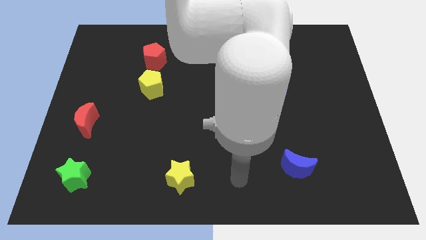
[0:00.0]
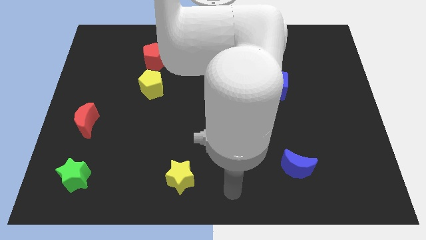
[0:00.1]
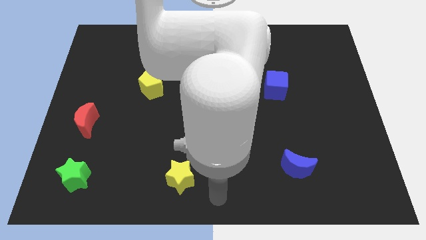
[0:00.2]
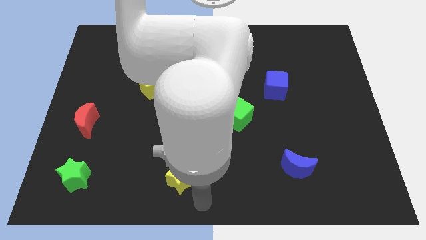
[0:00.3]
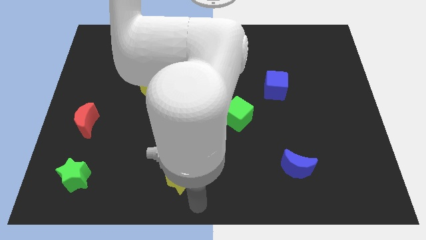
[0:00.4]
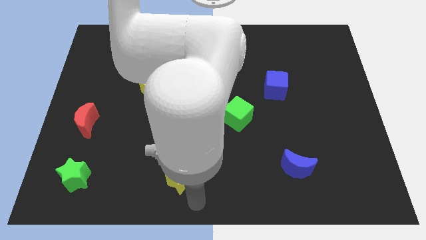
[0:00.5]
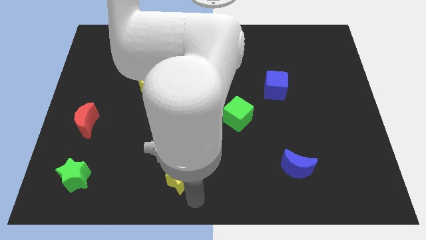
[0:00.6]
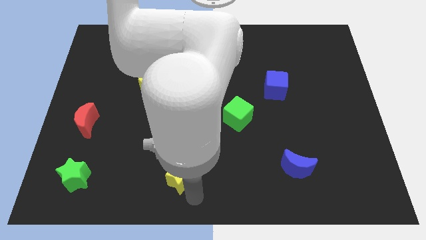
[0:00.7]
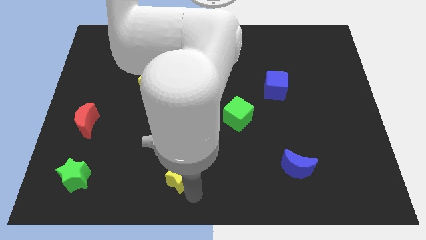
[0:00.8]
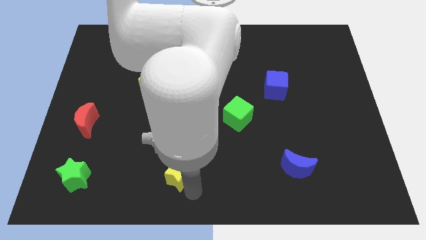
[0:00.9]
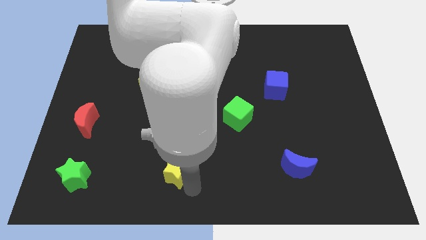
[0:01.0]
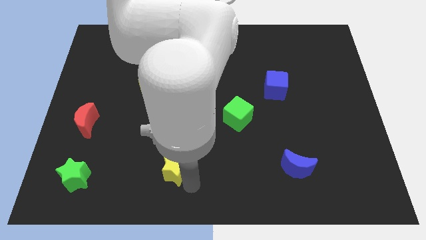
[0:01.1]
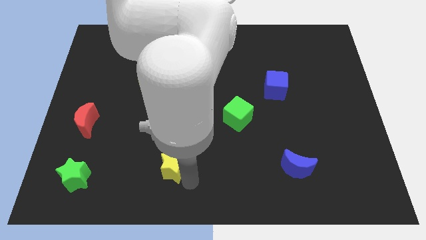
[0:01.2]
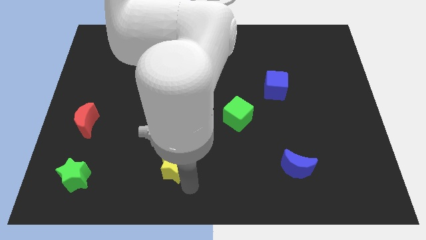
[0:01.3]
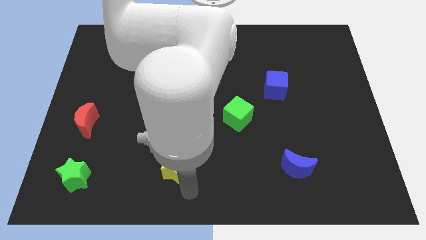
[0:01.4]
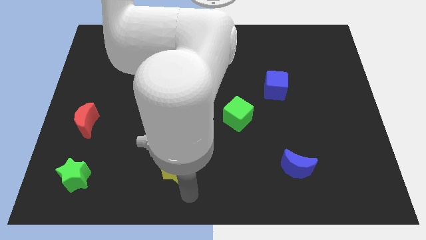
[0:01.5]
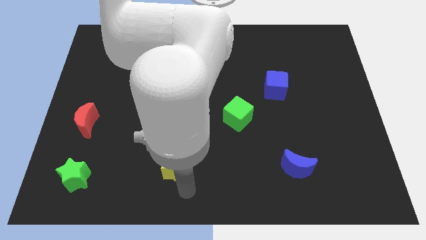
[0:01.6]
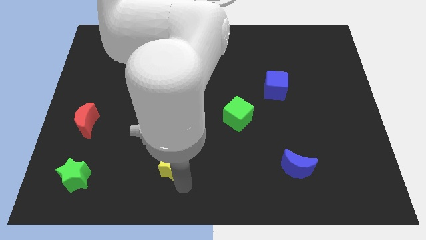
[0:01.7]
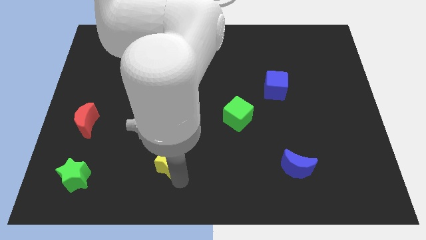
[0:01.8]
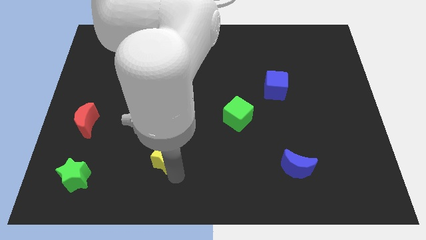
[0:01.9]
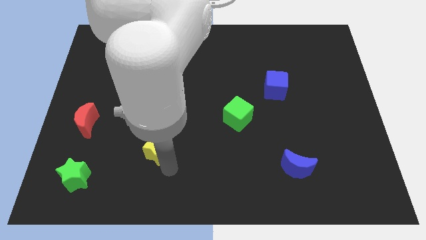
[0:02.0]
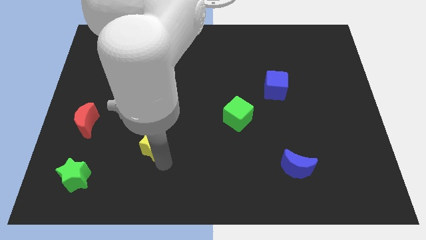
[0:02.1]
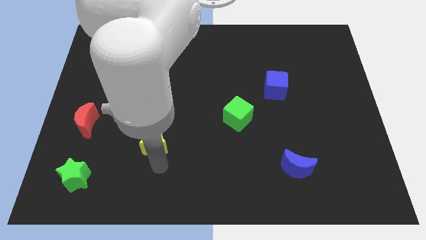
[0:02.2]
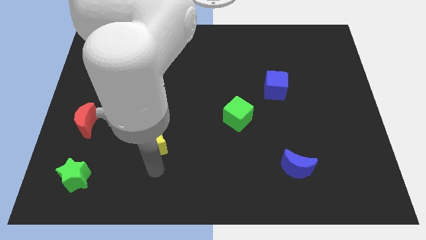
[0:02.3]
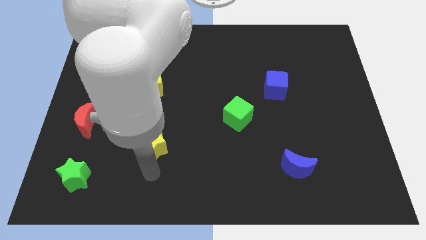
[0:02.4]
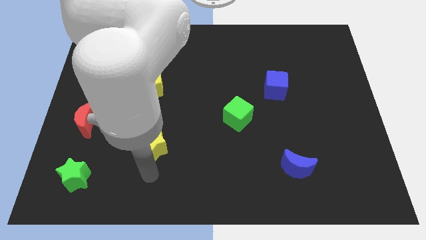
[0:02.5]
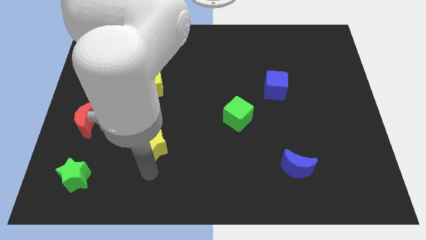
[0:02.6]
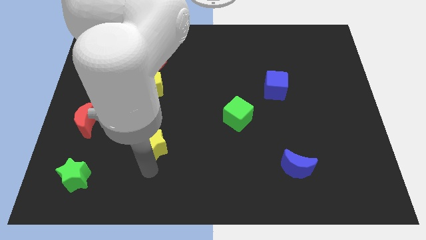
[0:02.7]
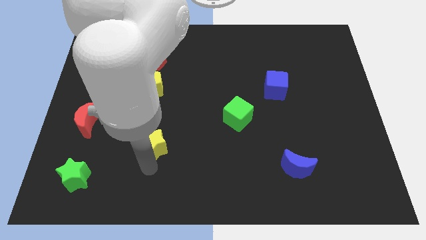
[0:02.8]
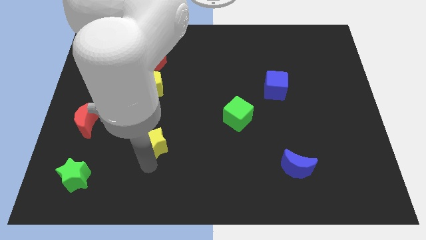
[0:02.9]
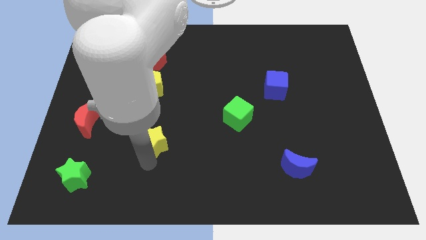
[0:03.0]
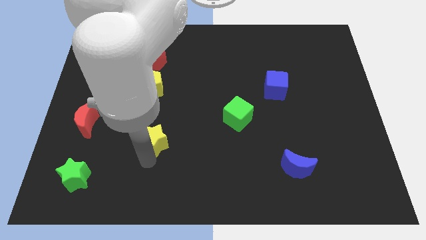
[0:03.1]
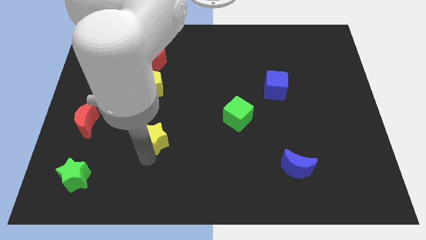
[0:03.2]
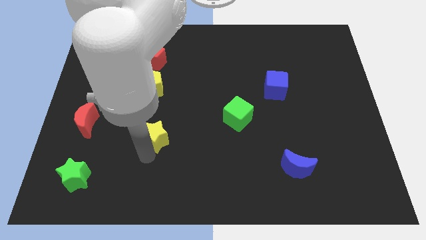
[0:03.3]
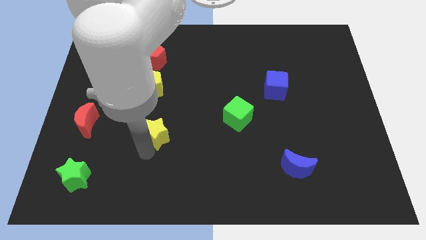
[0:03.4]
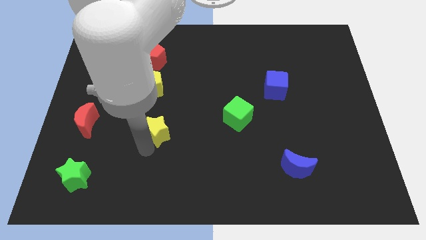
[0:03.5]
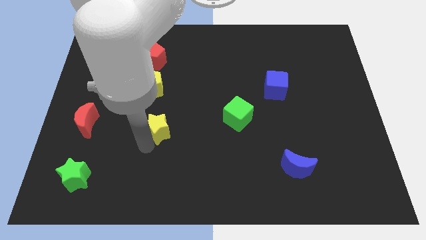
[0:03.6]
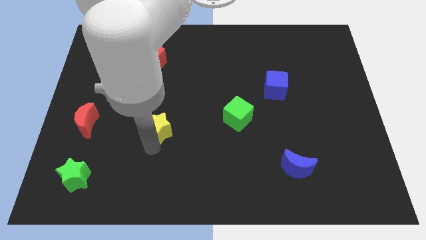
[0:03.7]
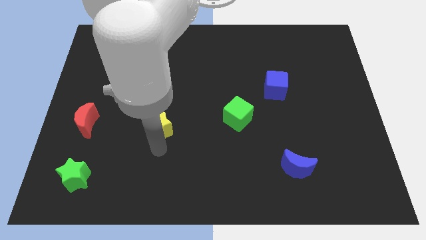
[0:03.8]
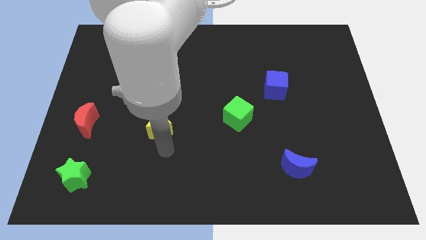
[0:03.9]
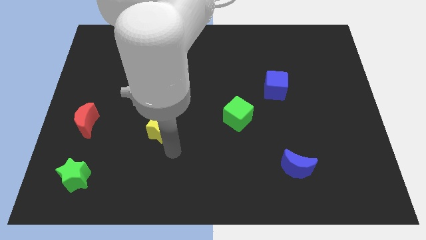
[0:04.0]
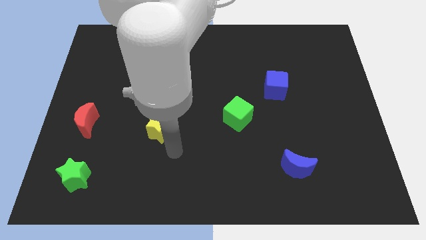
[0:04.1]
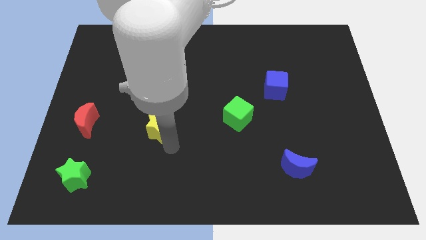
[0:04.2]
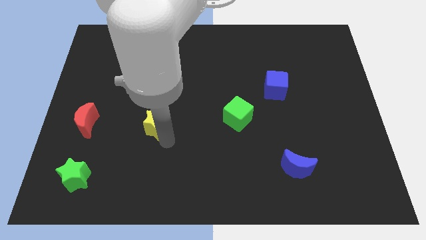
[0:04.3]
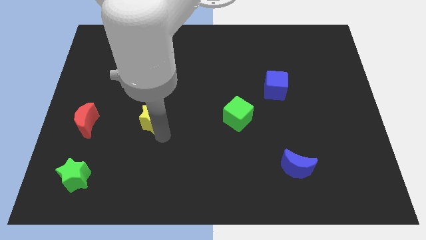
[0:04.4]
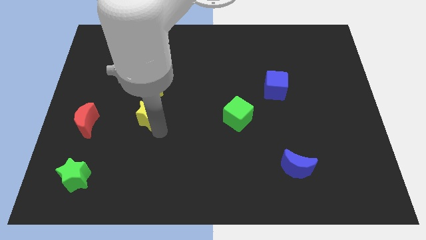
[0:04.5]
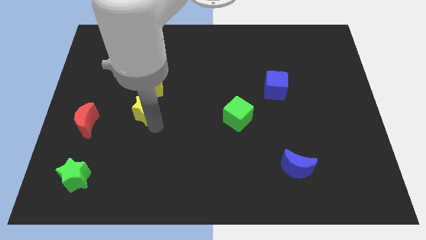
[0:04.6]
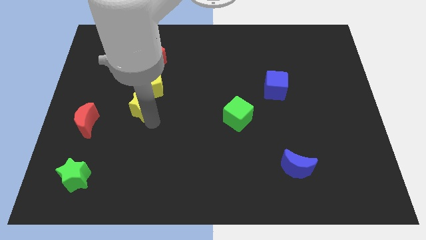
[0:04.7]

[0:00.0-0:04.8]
slide the yellow star to the bottom side of the red pentagon

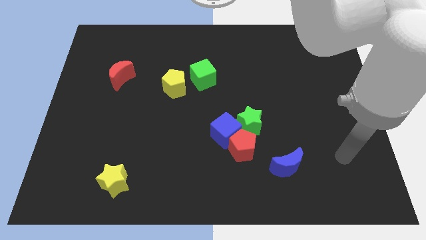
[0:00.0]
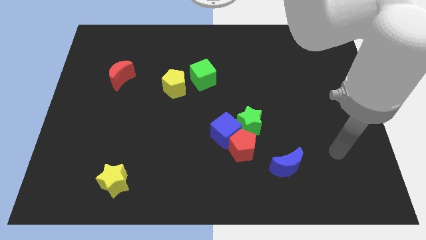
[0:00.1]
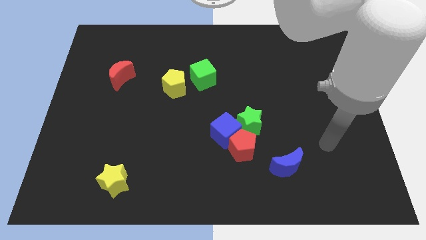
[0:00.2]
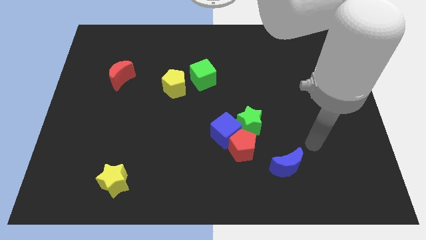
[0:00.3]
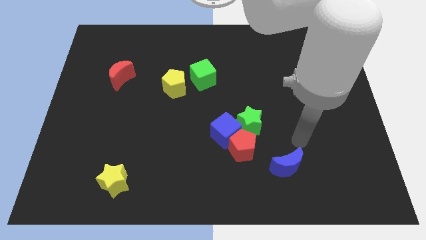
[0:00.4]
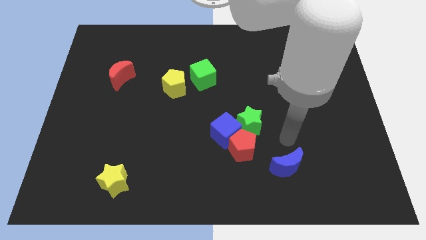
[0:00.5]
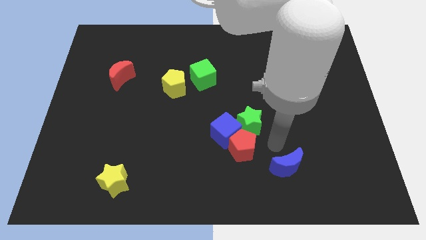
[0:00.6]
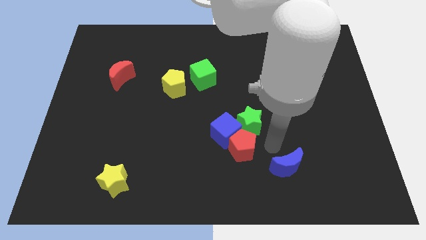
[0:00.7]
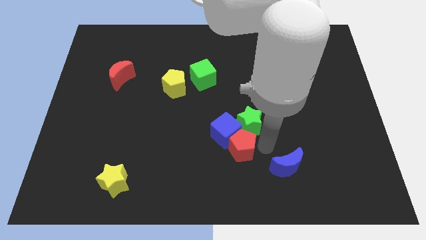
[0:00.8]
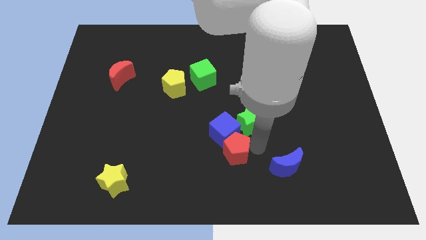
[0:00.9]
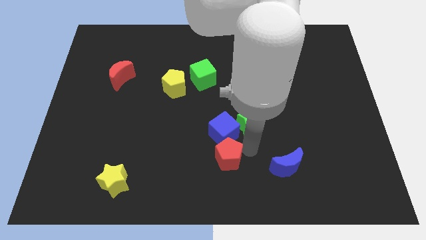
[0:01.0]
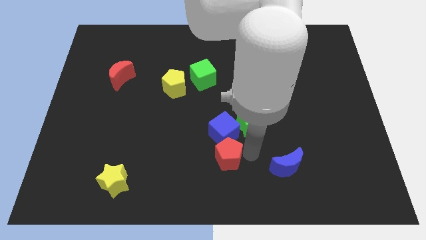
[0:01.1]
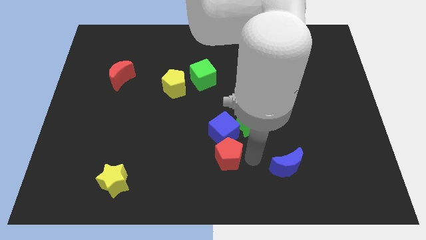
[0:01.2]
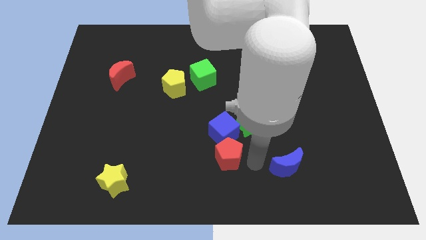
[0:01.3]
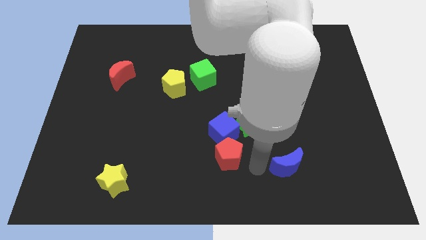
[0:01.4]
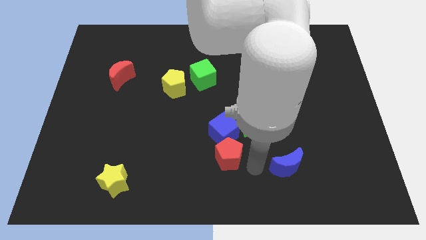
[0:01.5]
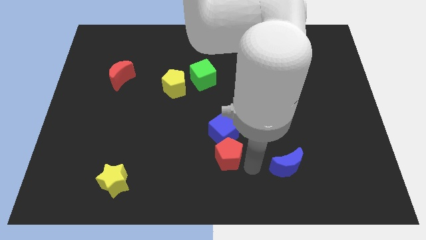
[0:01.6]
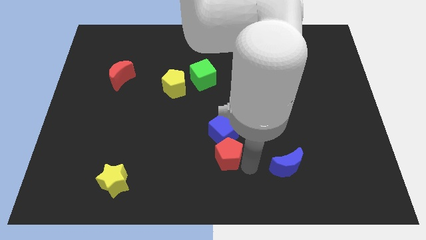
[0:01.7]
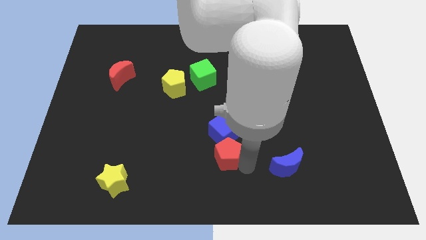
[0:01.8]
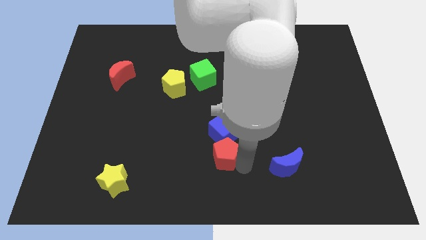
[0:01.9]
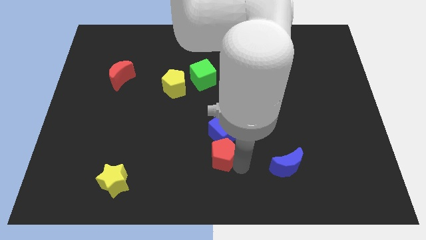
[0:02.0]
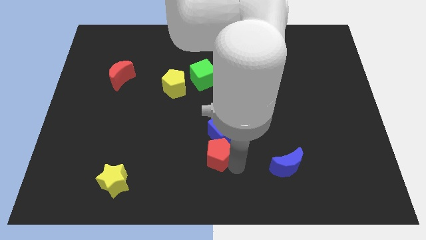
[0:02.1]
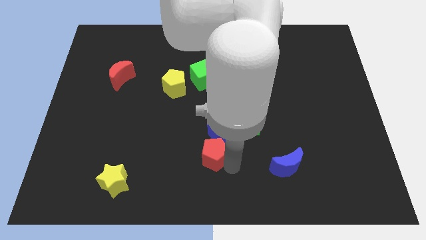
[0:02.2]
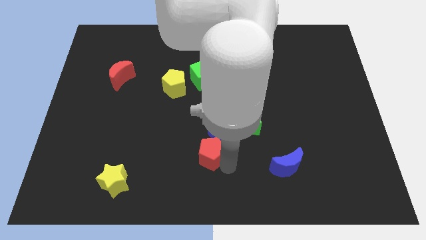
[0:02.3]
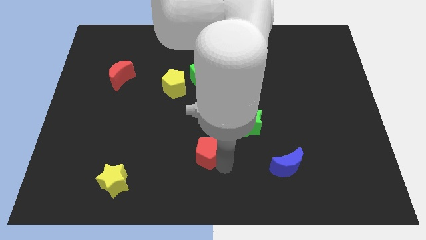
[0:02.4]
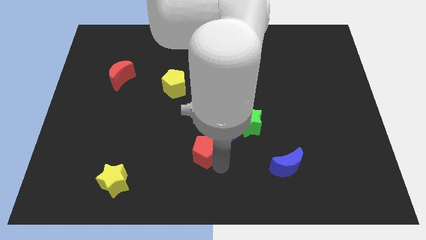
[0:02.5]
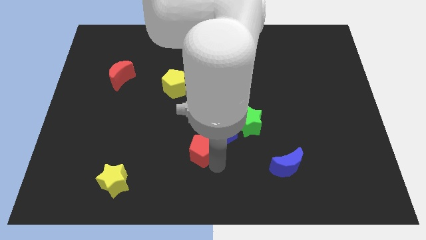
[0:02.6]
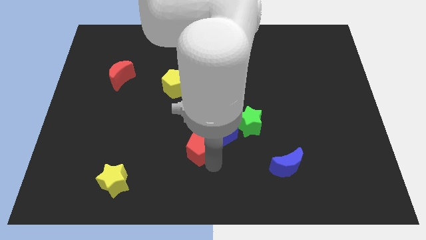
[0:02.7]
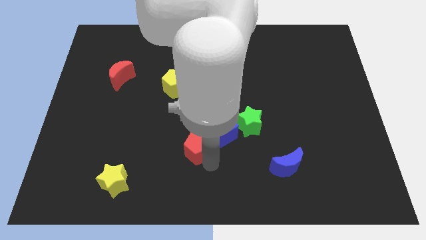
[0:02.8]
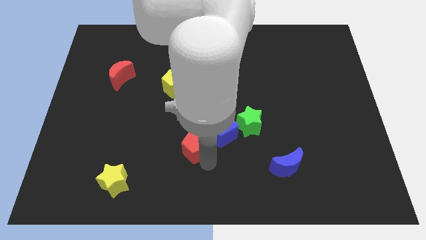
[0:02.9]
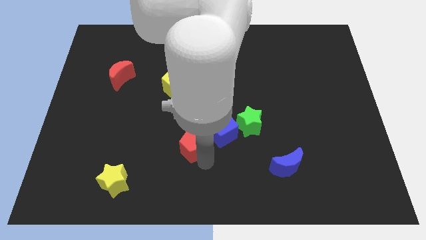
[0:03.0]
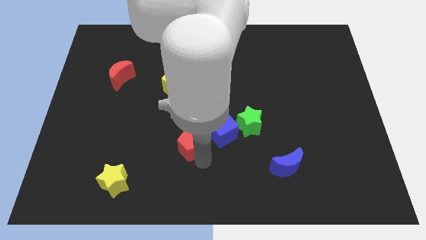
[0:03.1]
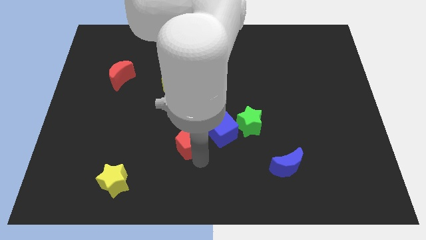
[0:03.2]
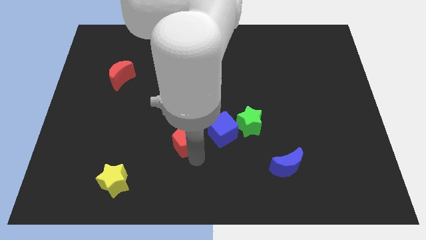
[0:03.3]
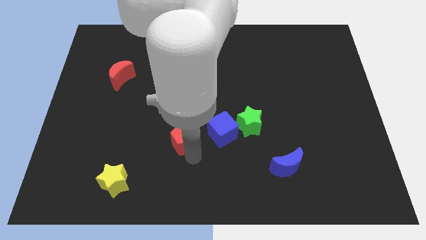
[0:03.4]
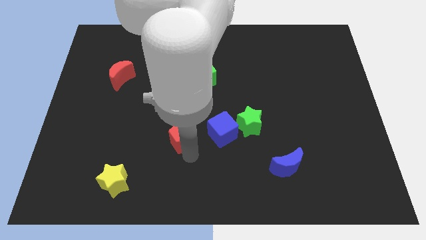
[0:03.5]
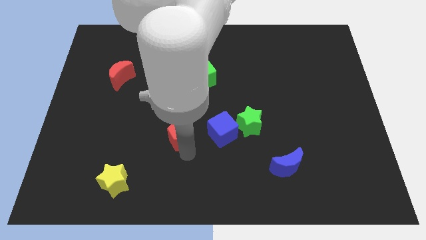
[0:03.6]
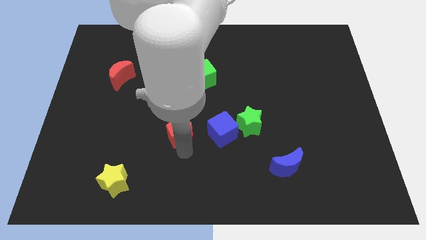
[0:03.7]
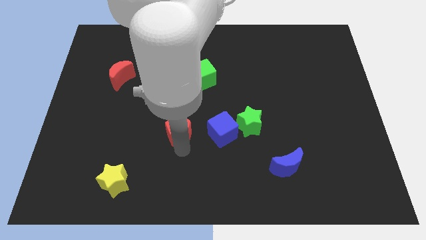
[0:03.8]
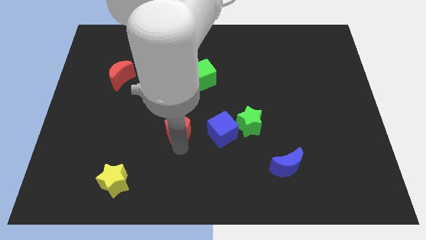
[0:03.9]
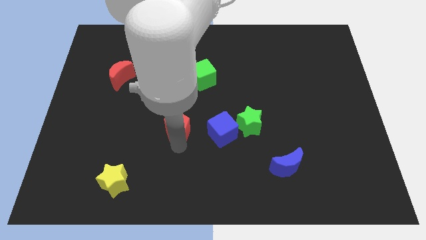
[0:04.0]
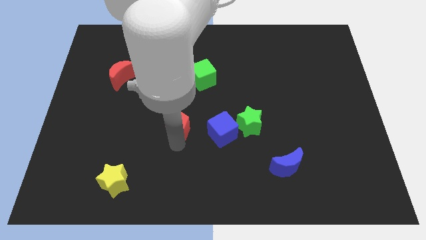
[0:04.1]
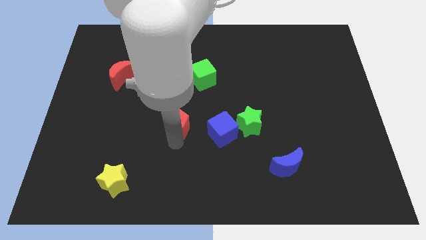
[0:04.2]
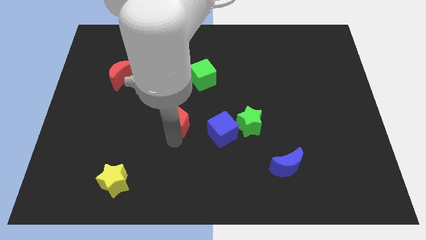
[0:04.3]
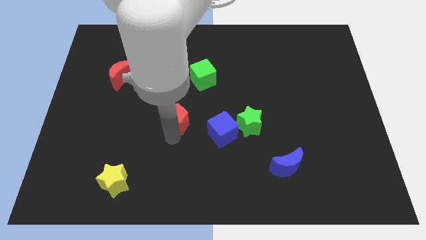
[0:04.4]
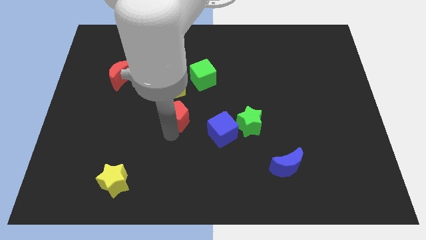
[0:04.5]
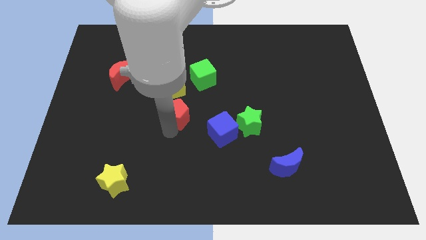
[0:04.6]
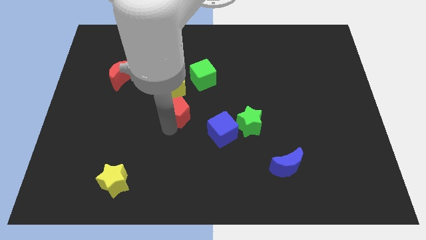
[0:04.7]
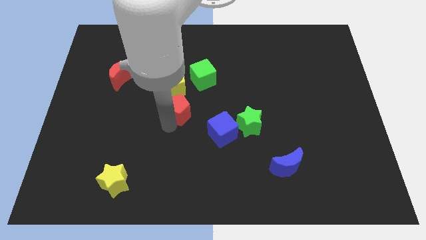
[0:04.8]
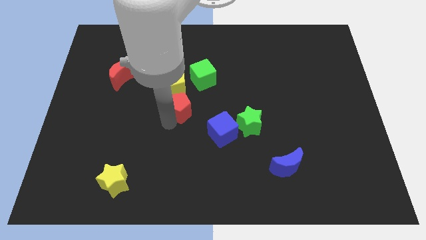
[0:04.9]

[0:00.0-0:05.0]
put the red pentagon diagonally down and to the left of the green cube
